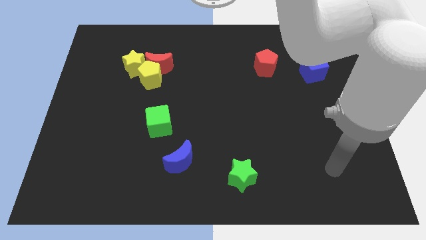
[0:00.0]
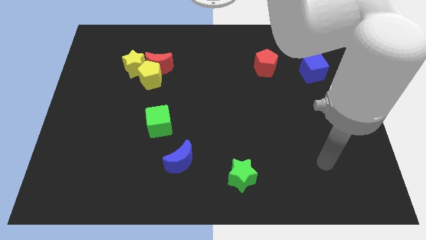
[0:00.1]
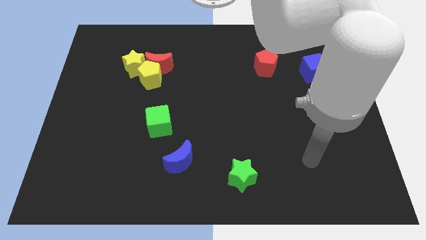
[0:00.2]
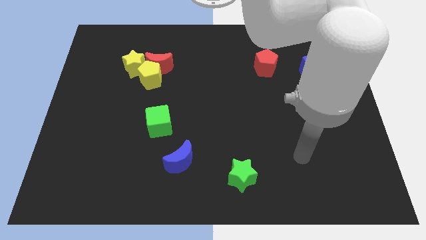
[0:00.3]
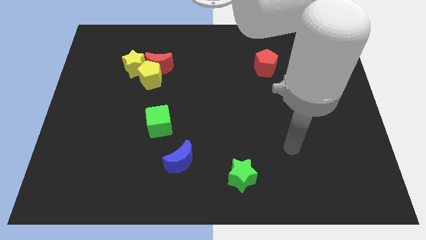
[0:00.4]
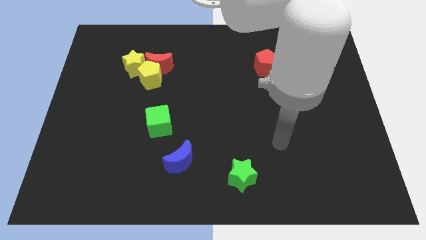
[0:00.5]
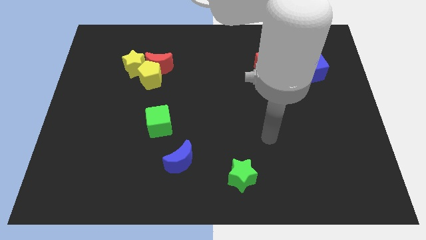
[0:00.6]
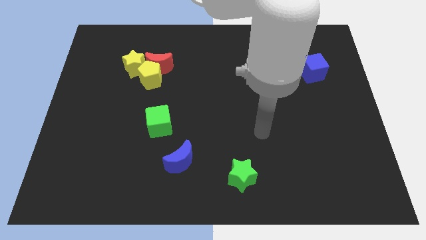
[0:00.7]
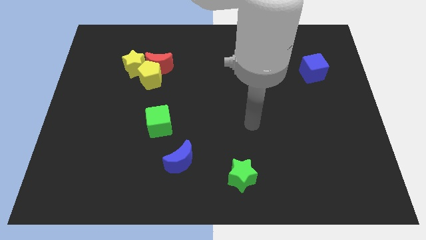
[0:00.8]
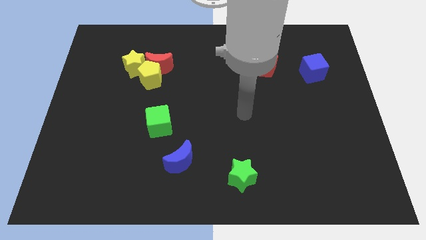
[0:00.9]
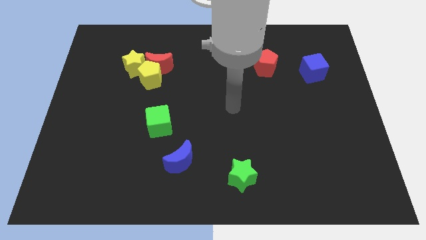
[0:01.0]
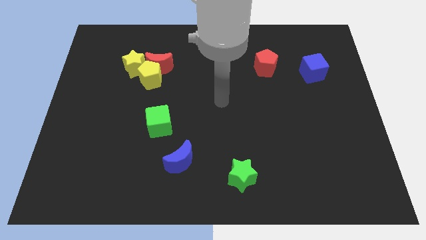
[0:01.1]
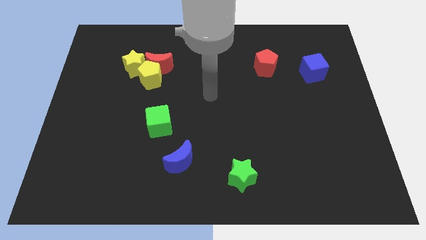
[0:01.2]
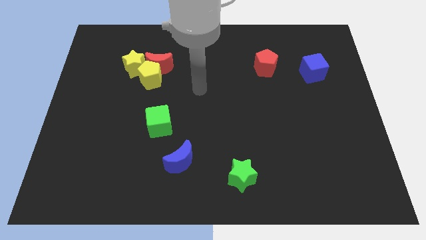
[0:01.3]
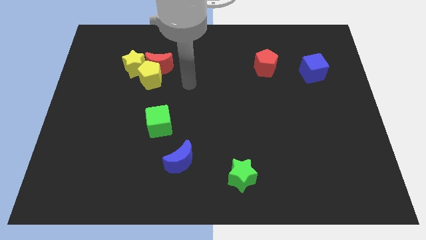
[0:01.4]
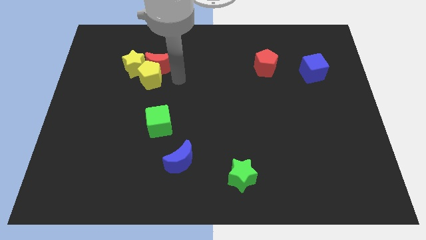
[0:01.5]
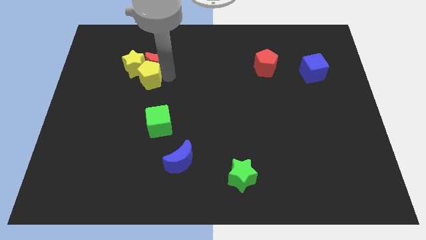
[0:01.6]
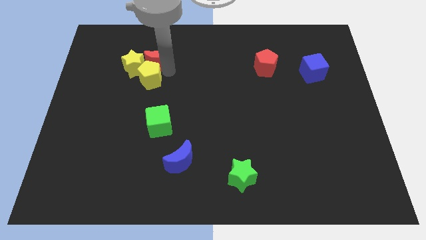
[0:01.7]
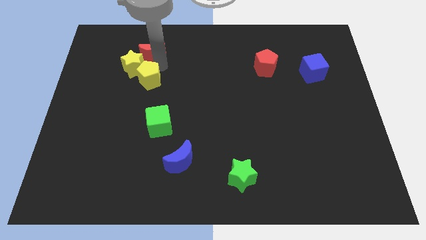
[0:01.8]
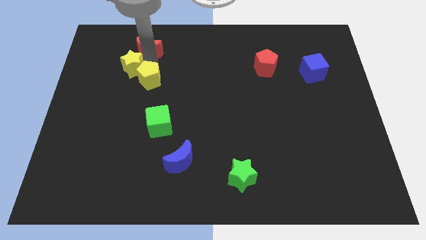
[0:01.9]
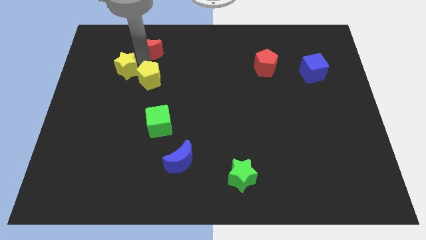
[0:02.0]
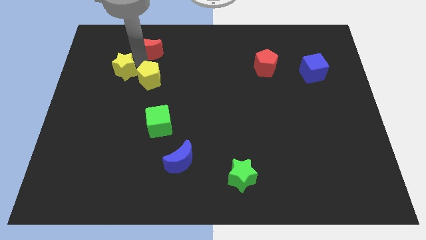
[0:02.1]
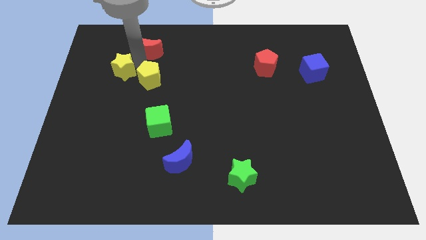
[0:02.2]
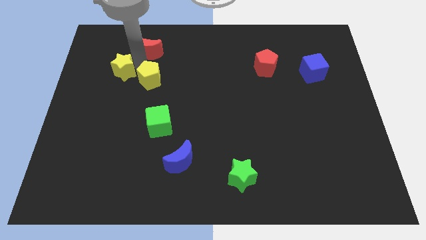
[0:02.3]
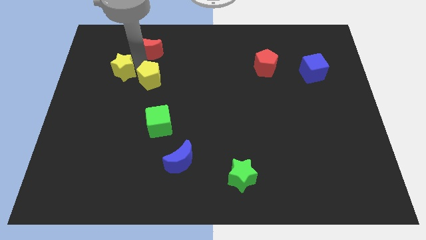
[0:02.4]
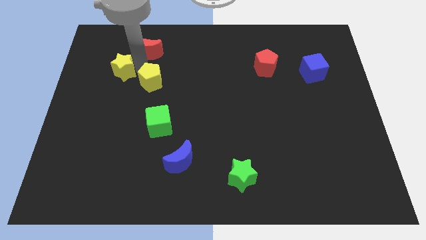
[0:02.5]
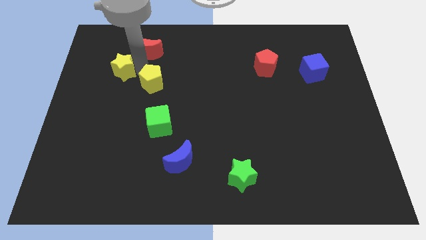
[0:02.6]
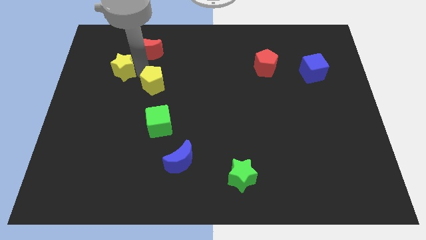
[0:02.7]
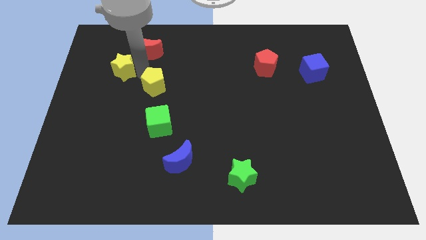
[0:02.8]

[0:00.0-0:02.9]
move the yellow pentagon away from the red moon and yellow star

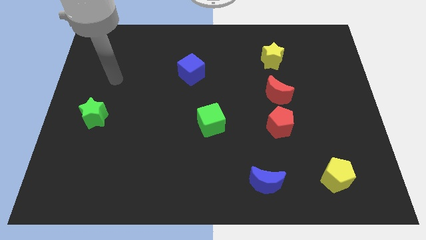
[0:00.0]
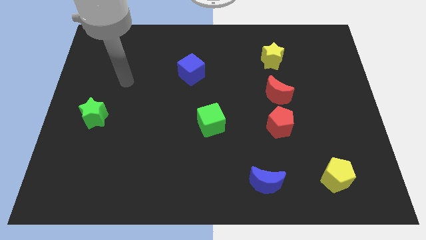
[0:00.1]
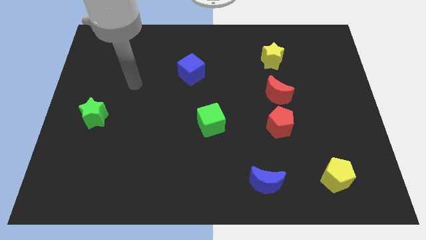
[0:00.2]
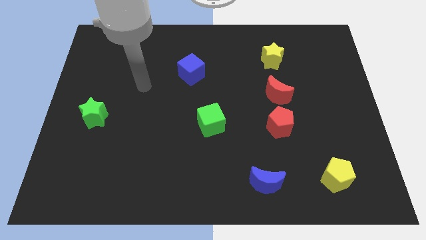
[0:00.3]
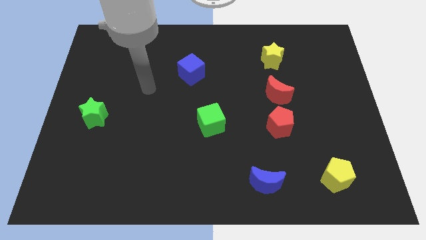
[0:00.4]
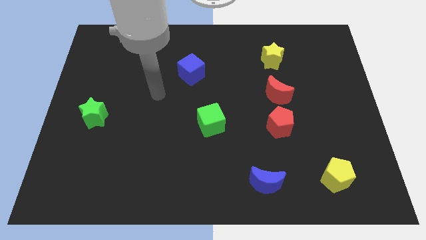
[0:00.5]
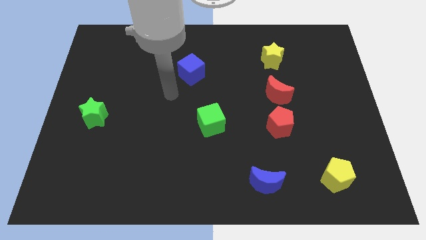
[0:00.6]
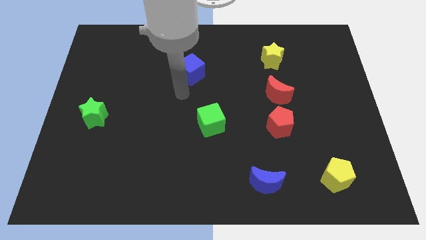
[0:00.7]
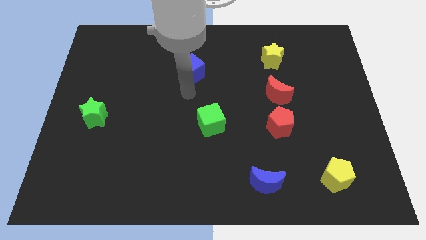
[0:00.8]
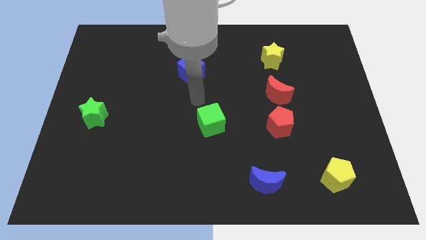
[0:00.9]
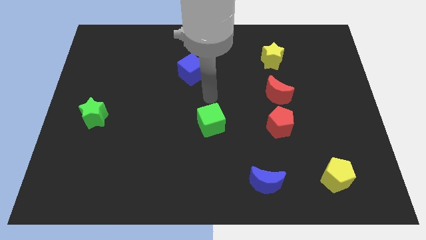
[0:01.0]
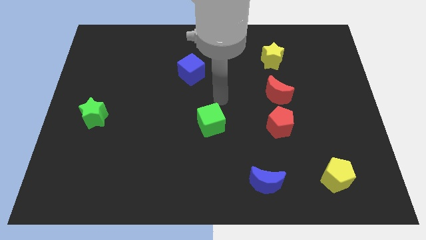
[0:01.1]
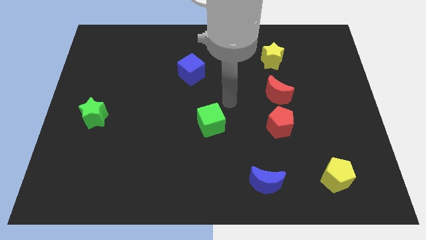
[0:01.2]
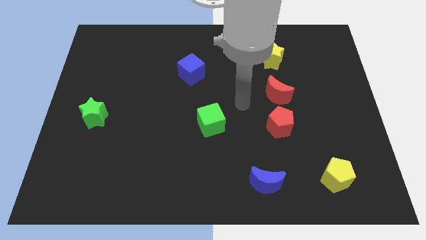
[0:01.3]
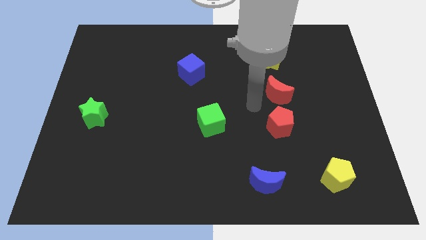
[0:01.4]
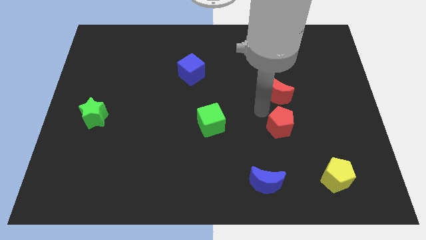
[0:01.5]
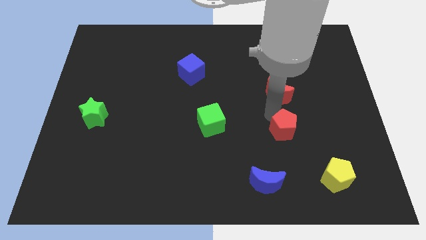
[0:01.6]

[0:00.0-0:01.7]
move the red moon away from the red pentagon

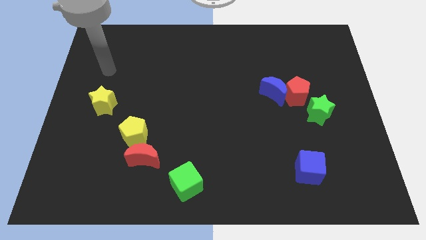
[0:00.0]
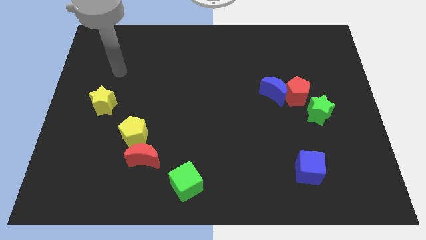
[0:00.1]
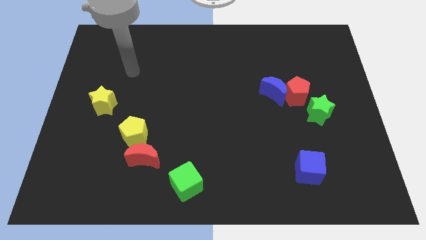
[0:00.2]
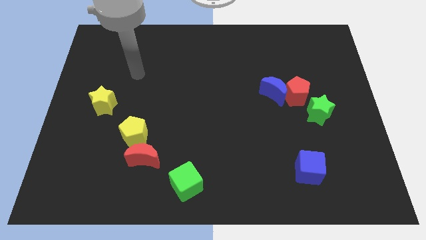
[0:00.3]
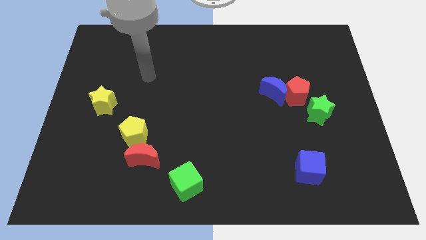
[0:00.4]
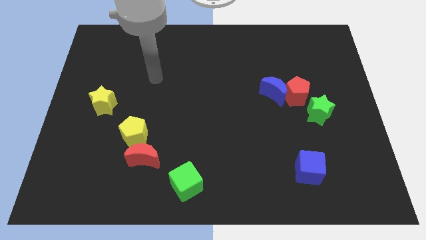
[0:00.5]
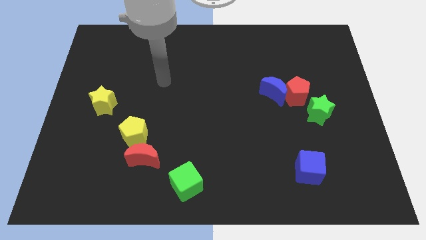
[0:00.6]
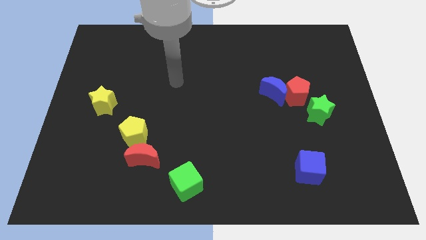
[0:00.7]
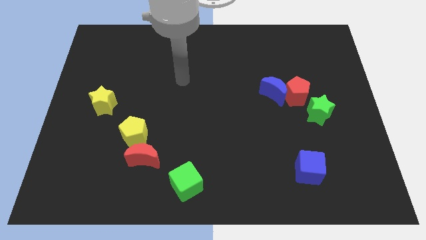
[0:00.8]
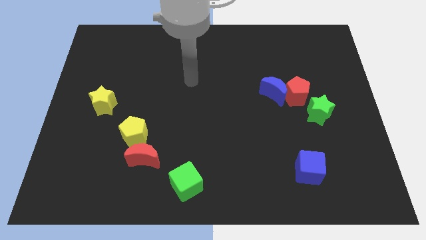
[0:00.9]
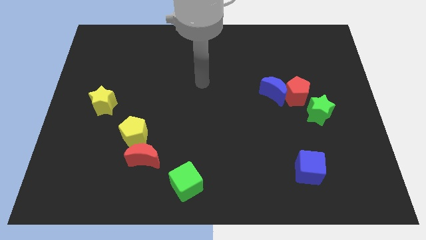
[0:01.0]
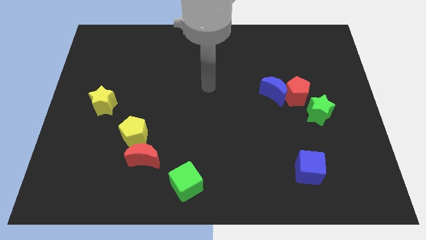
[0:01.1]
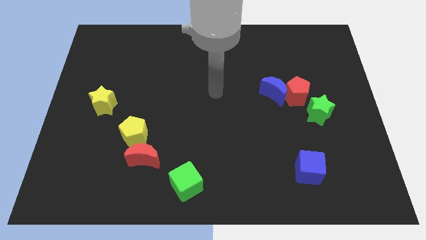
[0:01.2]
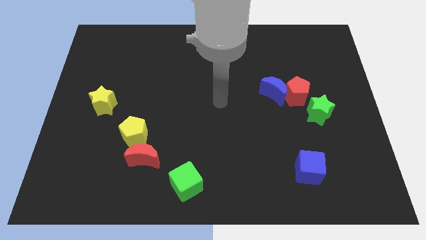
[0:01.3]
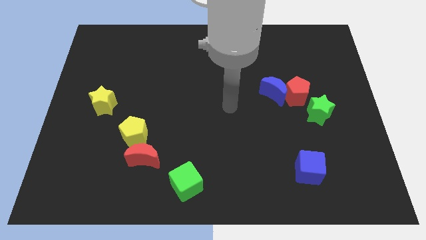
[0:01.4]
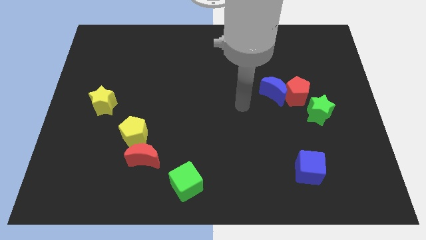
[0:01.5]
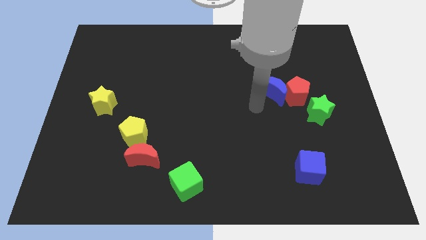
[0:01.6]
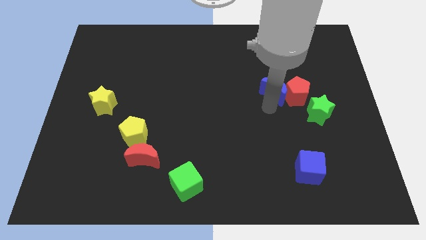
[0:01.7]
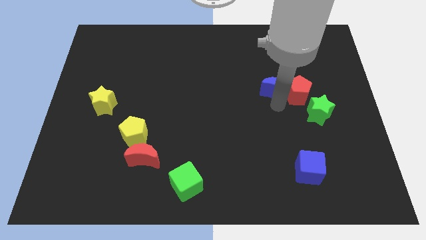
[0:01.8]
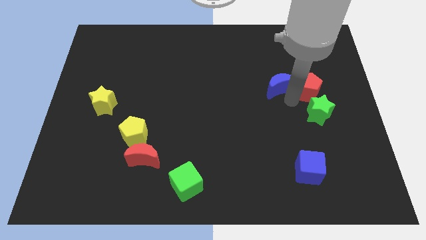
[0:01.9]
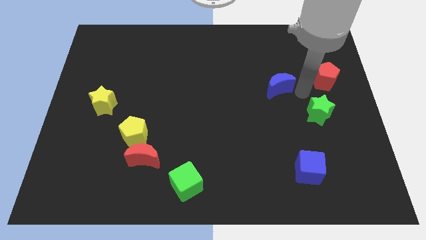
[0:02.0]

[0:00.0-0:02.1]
move the blue moon away from the red pentagon

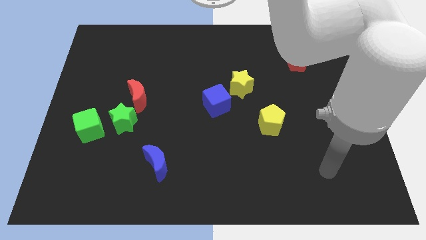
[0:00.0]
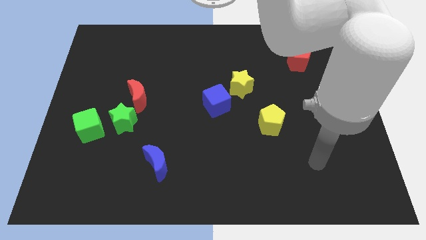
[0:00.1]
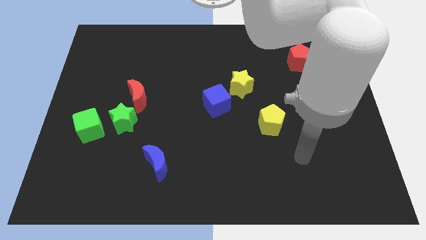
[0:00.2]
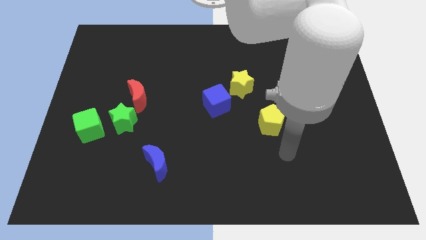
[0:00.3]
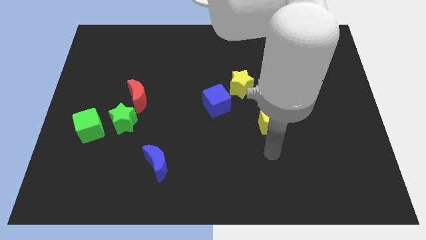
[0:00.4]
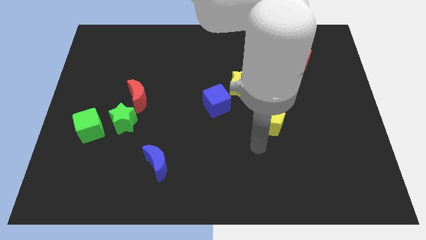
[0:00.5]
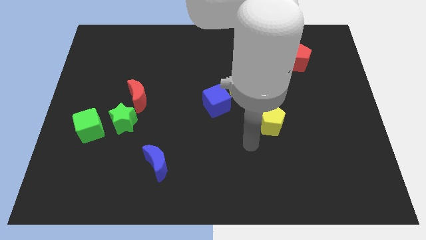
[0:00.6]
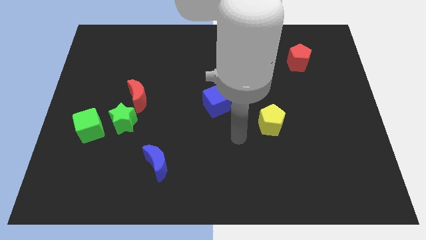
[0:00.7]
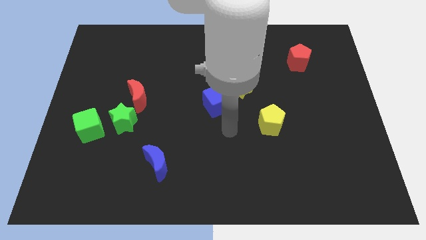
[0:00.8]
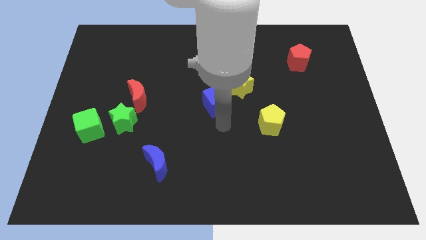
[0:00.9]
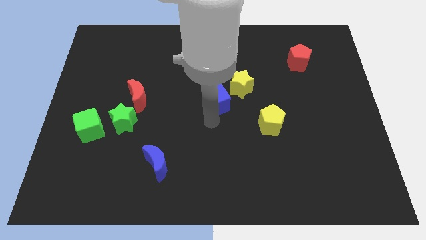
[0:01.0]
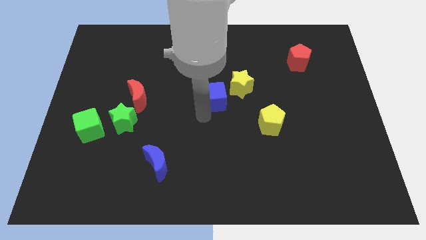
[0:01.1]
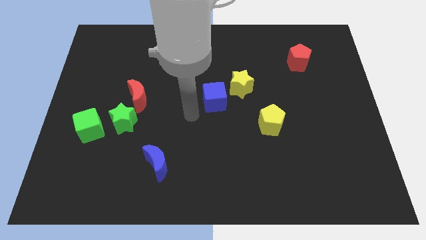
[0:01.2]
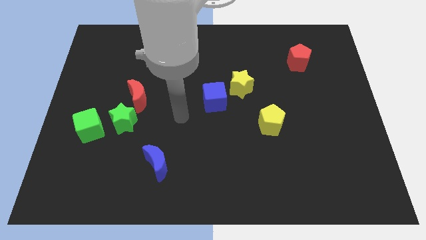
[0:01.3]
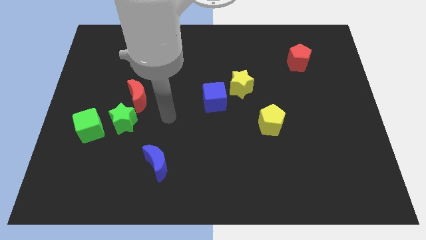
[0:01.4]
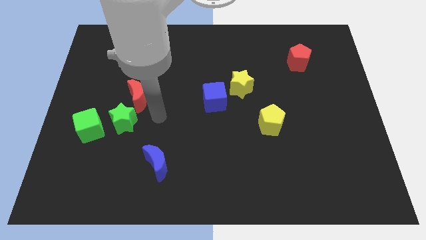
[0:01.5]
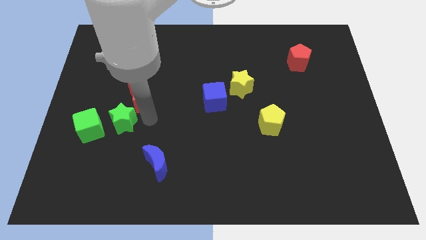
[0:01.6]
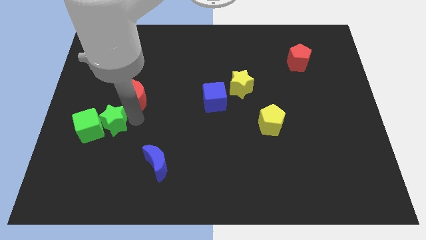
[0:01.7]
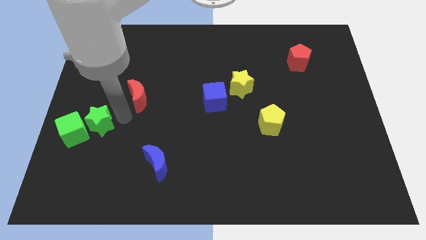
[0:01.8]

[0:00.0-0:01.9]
pull the red moon apart from the green star

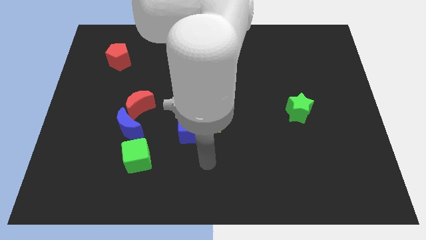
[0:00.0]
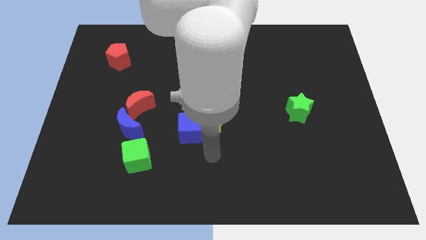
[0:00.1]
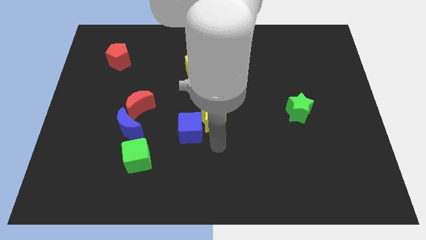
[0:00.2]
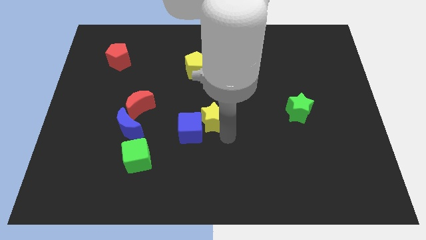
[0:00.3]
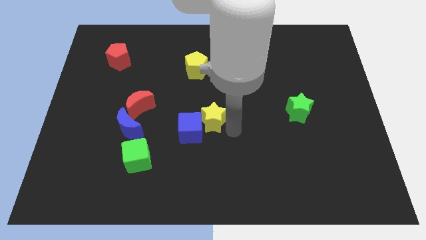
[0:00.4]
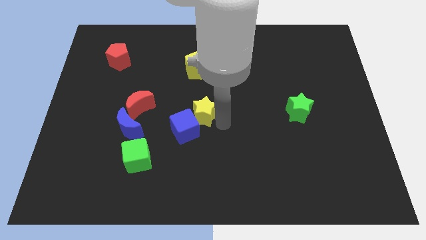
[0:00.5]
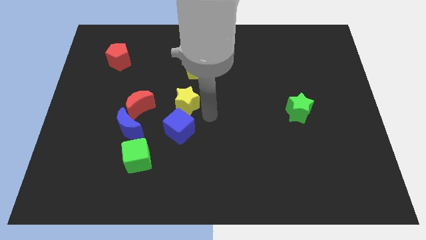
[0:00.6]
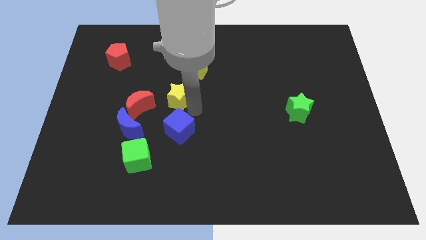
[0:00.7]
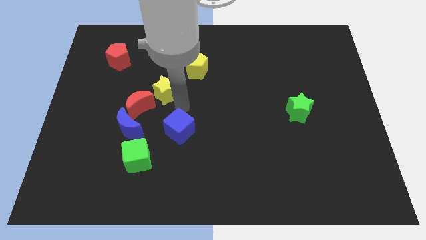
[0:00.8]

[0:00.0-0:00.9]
separate the blue cube from the yellow star
